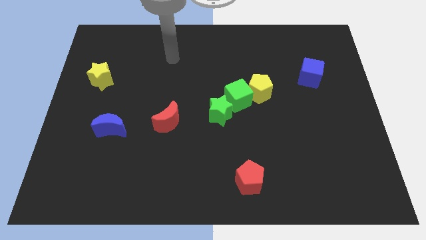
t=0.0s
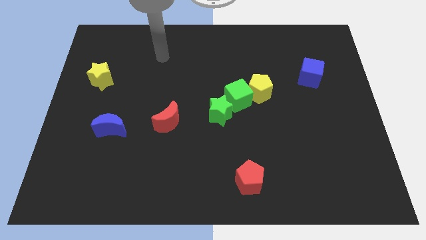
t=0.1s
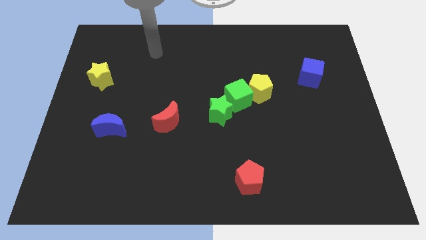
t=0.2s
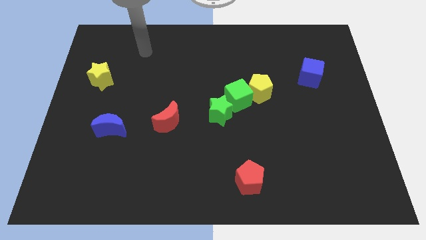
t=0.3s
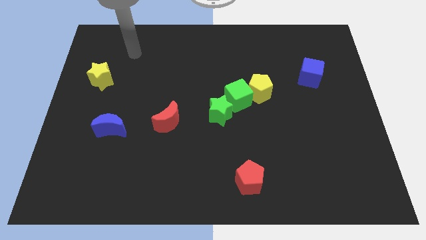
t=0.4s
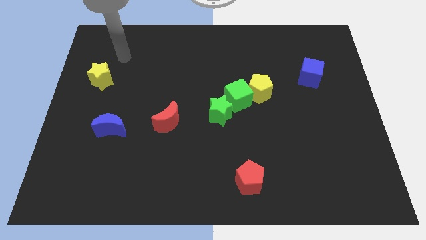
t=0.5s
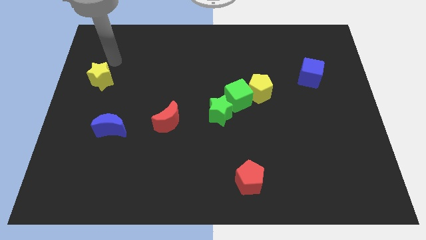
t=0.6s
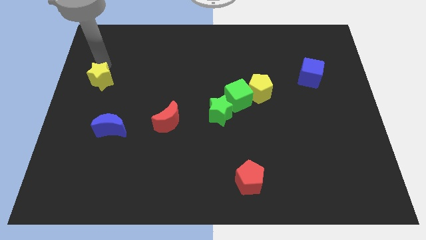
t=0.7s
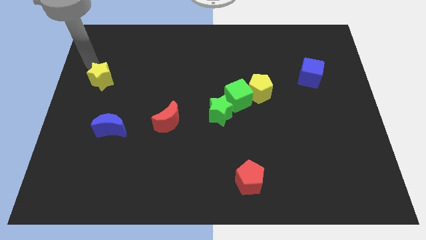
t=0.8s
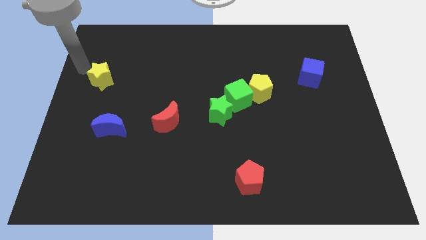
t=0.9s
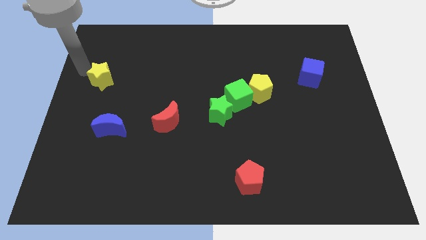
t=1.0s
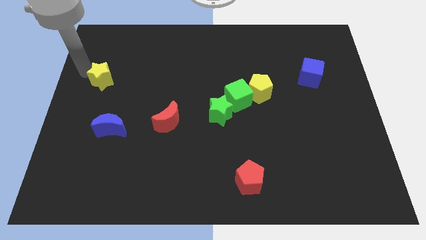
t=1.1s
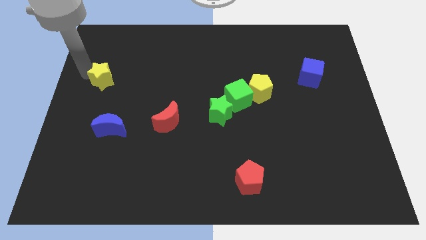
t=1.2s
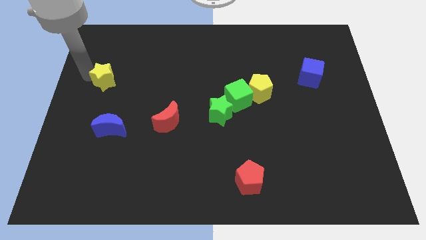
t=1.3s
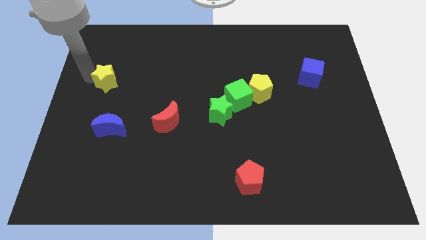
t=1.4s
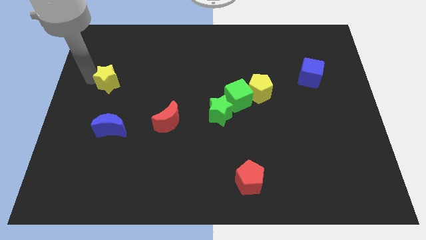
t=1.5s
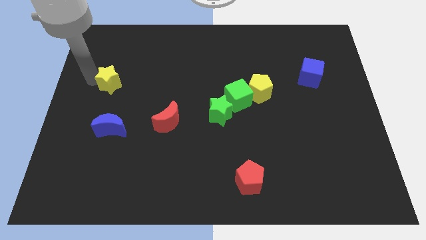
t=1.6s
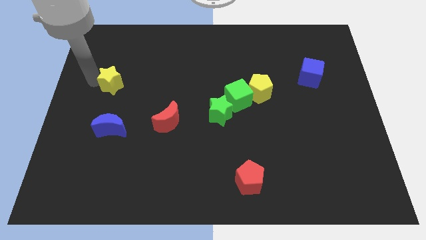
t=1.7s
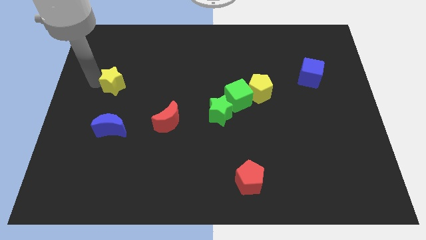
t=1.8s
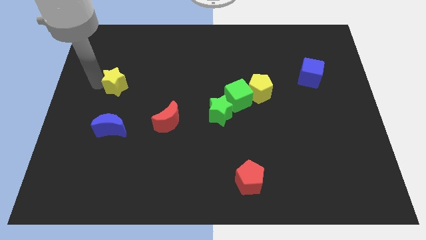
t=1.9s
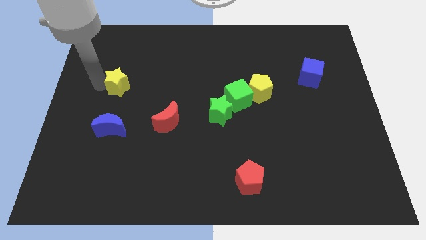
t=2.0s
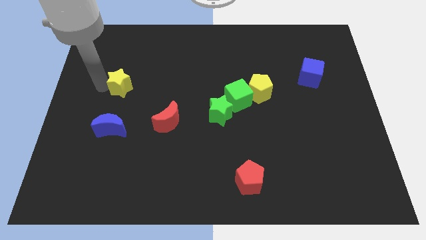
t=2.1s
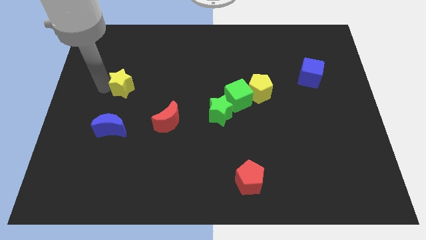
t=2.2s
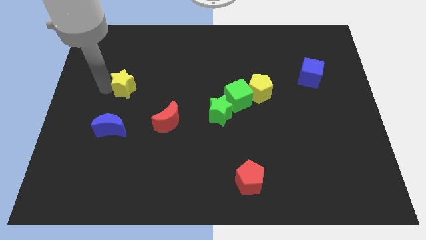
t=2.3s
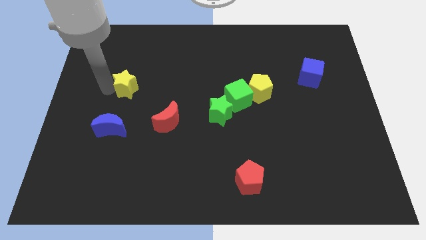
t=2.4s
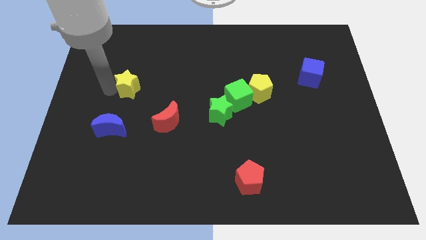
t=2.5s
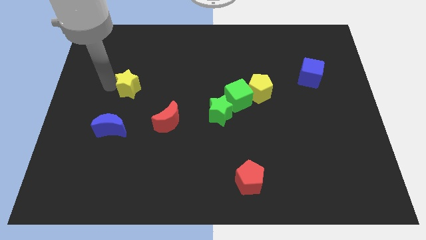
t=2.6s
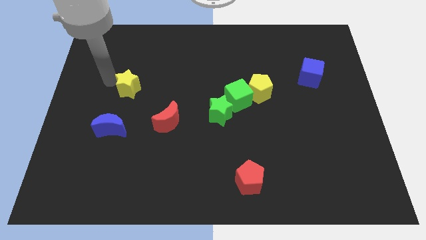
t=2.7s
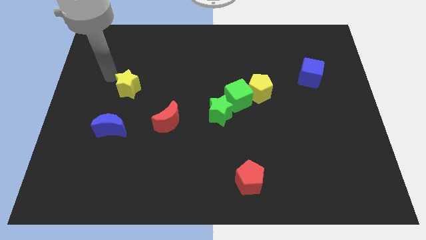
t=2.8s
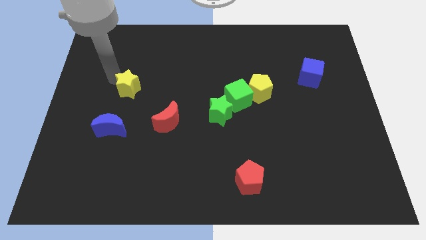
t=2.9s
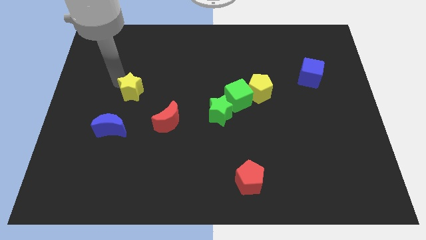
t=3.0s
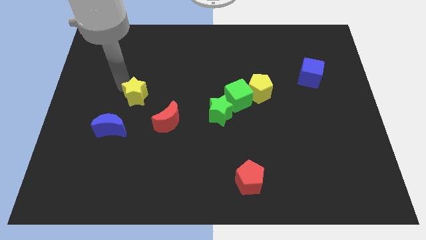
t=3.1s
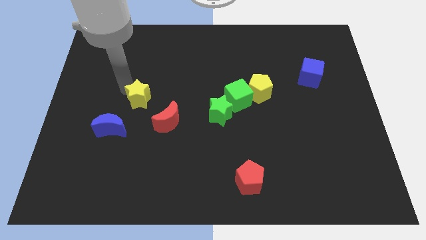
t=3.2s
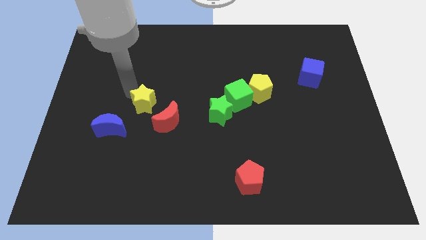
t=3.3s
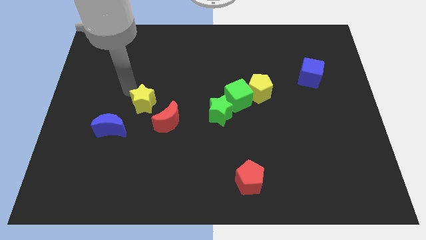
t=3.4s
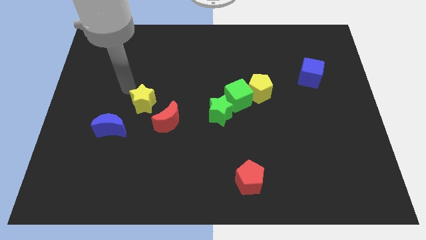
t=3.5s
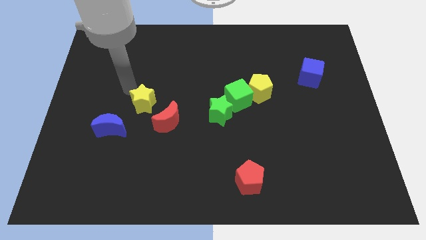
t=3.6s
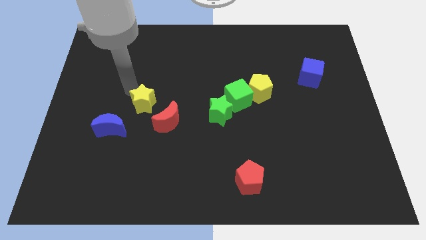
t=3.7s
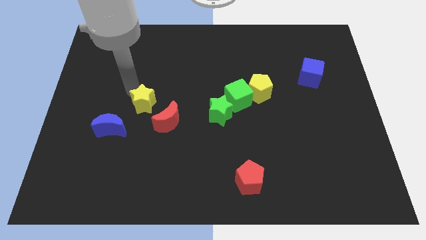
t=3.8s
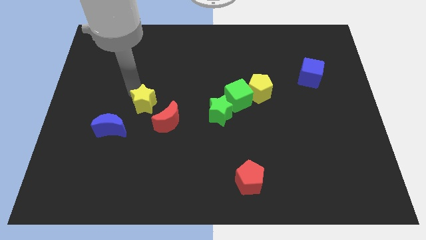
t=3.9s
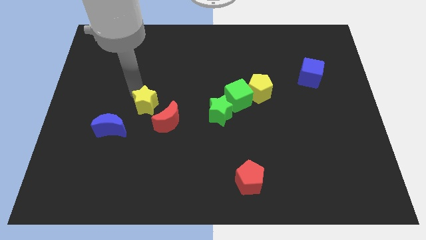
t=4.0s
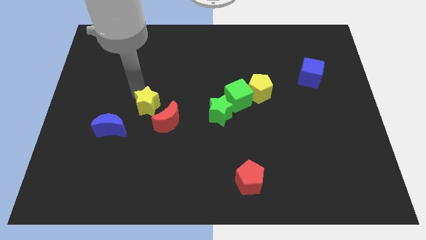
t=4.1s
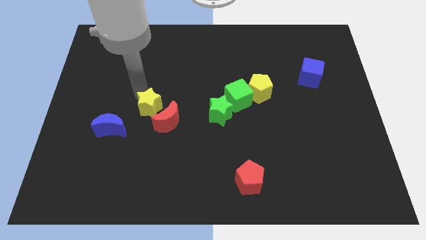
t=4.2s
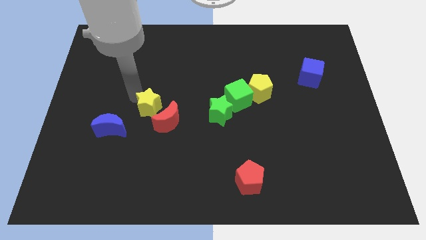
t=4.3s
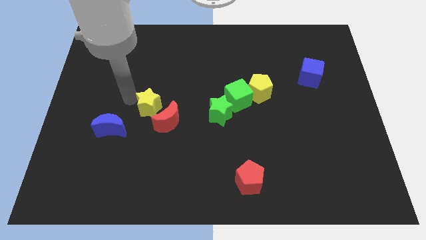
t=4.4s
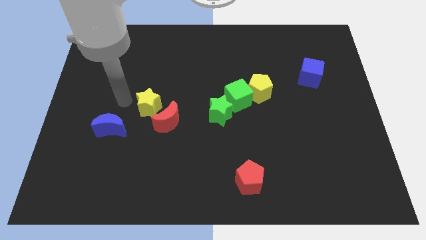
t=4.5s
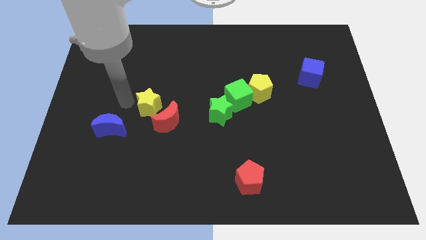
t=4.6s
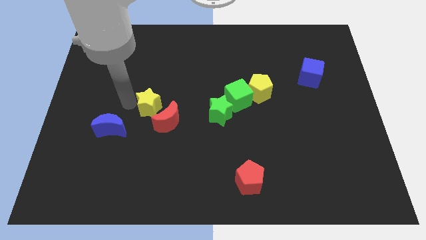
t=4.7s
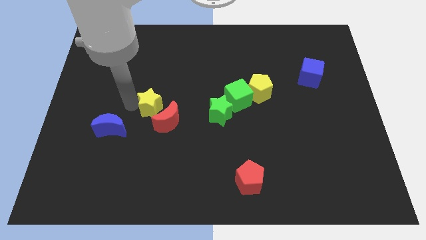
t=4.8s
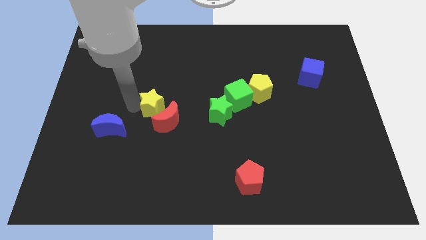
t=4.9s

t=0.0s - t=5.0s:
push the yellow star left of the green star

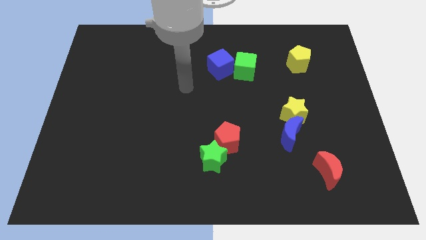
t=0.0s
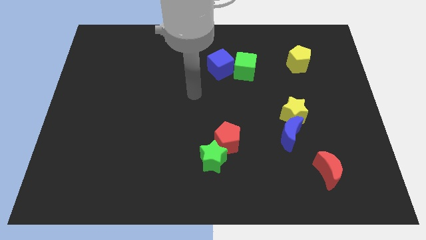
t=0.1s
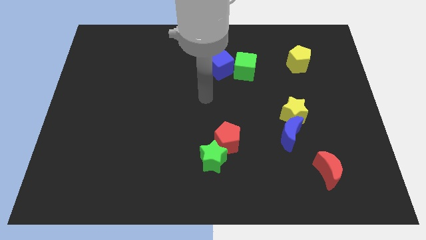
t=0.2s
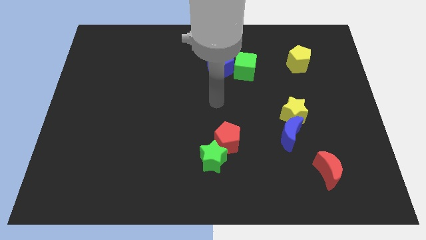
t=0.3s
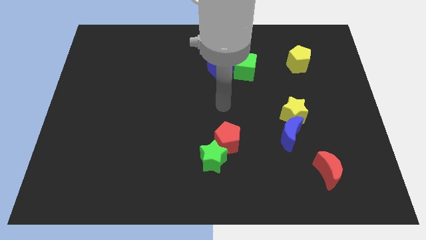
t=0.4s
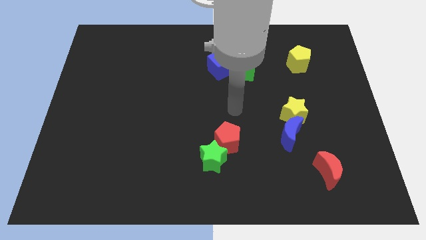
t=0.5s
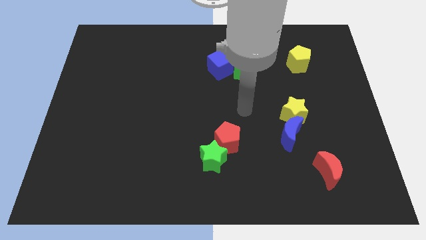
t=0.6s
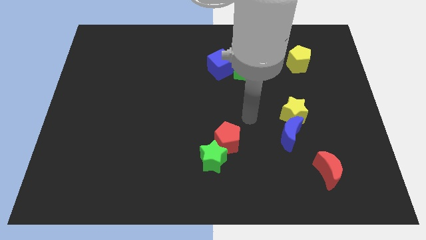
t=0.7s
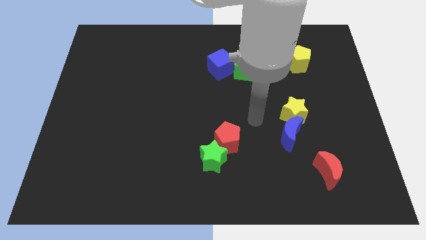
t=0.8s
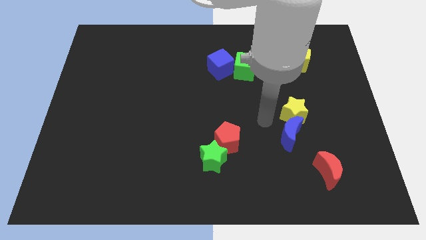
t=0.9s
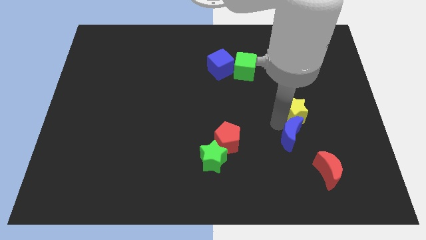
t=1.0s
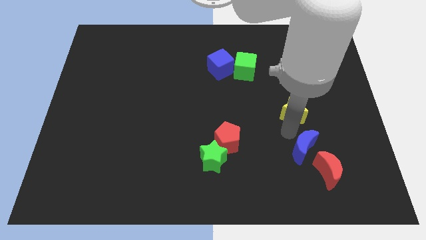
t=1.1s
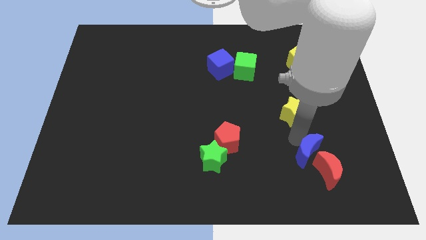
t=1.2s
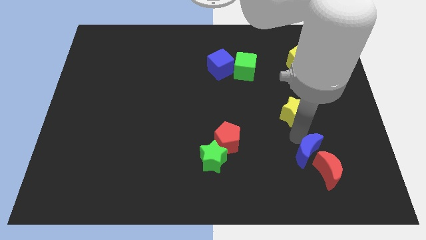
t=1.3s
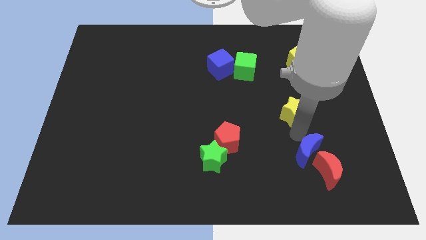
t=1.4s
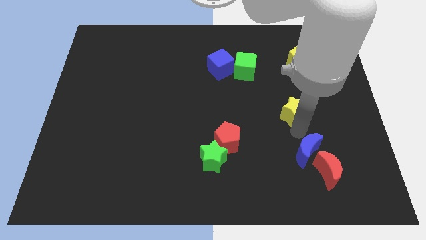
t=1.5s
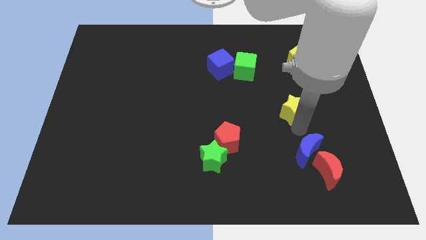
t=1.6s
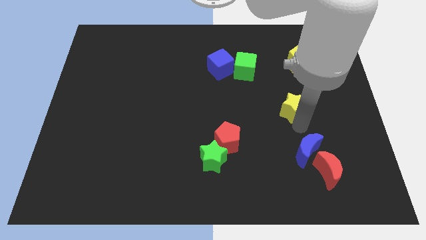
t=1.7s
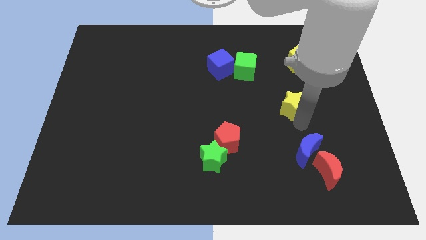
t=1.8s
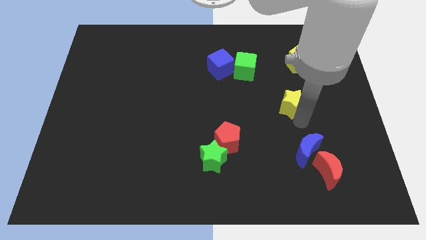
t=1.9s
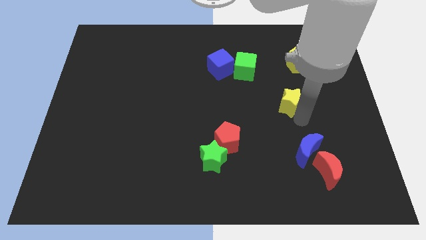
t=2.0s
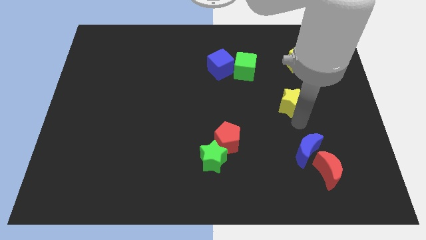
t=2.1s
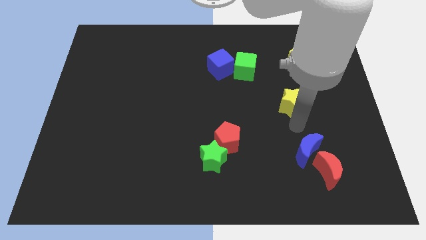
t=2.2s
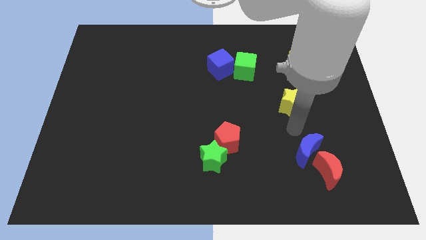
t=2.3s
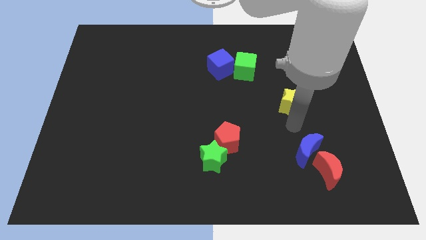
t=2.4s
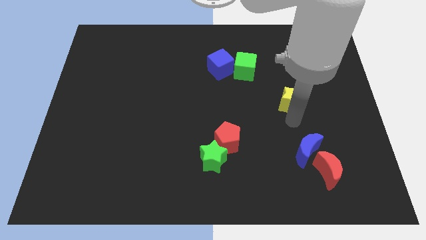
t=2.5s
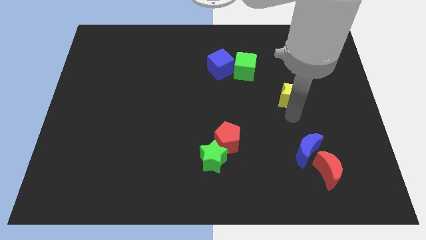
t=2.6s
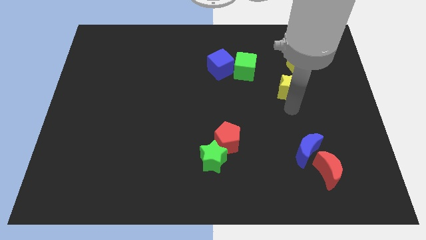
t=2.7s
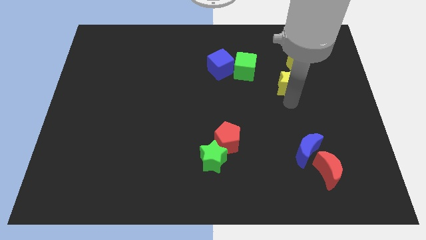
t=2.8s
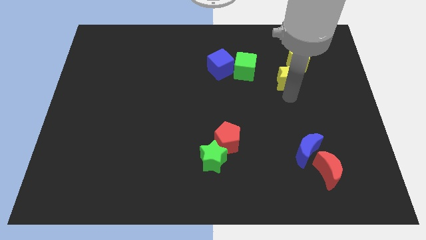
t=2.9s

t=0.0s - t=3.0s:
slide the yellow star to the right of the green cube
